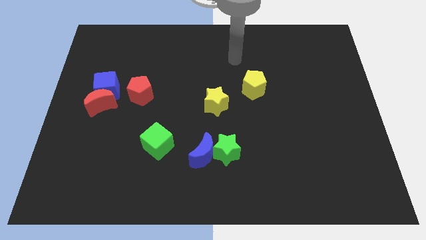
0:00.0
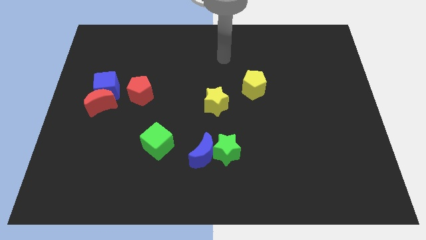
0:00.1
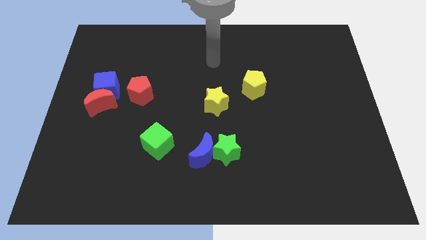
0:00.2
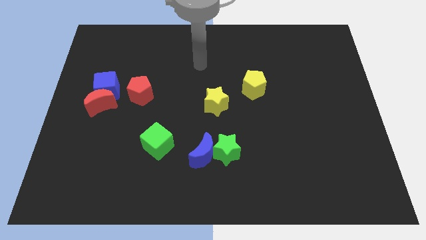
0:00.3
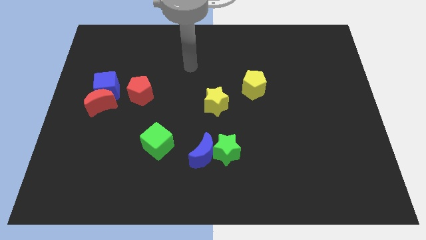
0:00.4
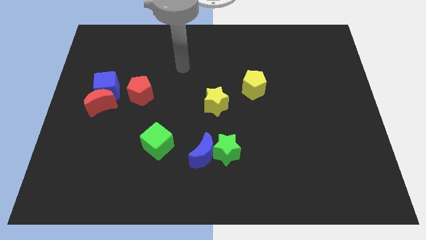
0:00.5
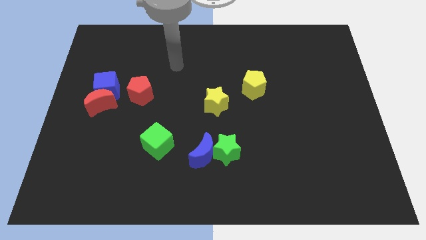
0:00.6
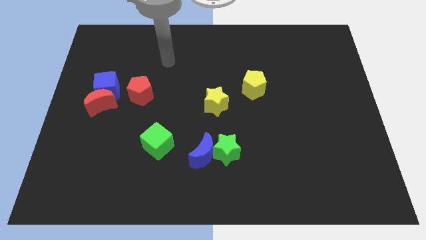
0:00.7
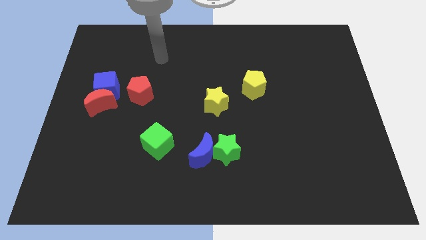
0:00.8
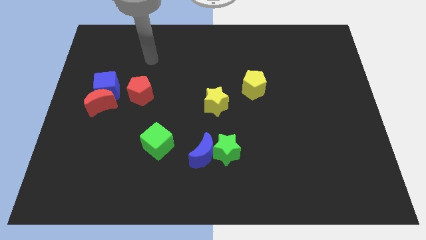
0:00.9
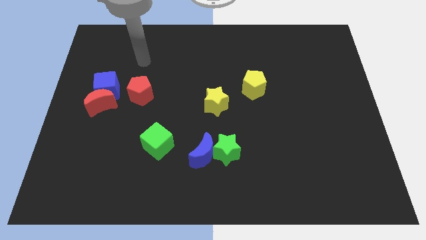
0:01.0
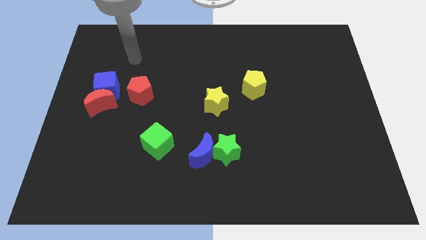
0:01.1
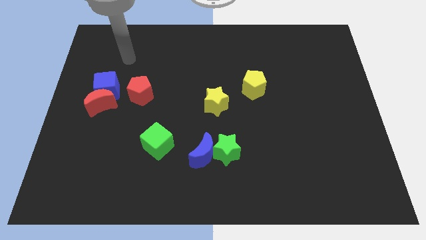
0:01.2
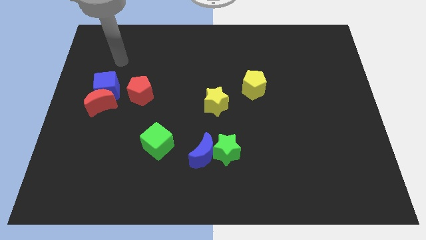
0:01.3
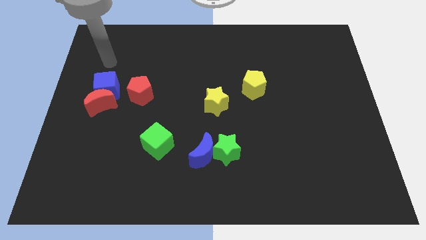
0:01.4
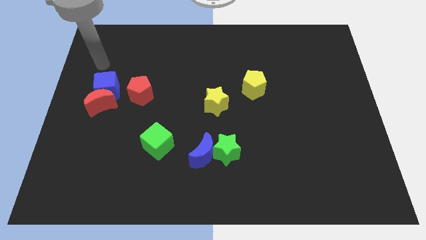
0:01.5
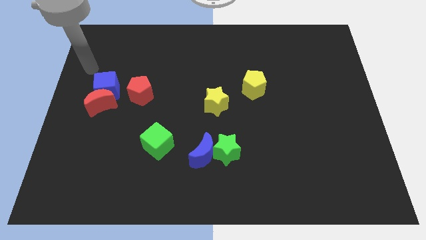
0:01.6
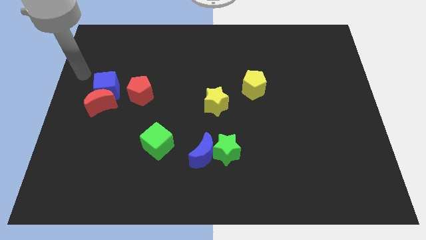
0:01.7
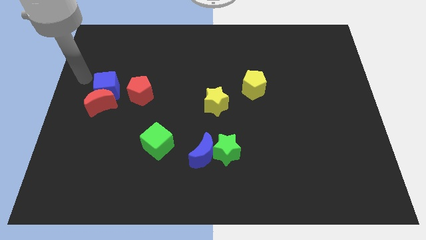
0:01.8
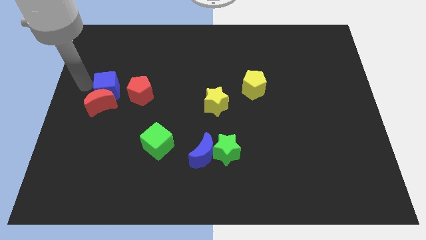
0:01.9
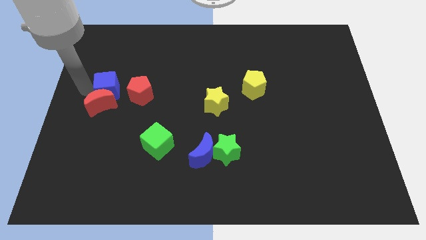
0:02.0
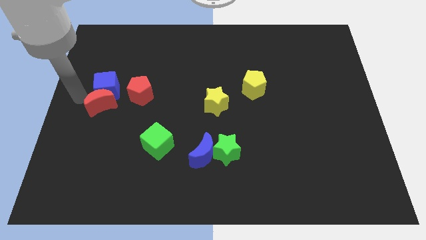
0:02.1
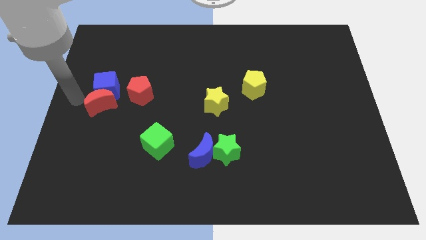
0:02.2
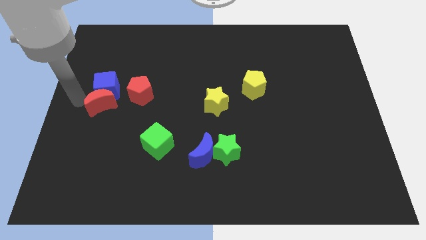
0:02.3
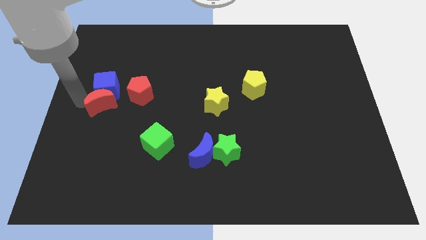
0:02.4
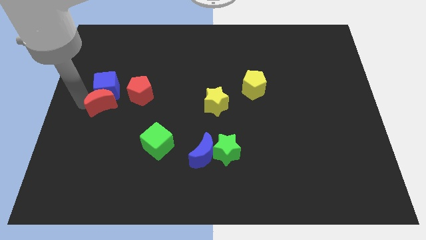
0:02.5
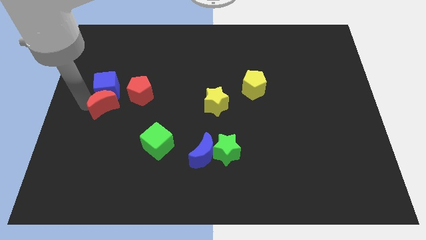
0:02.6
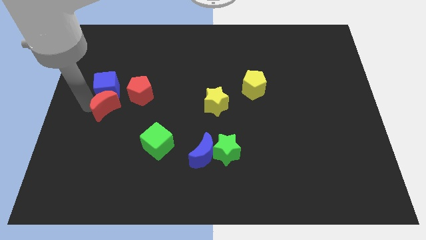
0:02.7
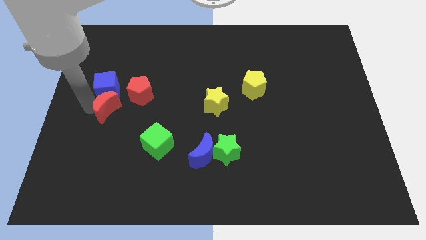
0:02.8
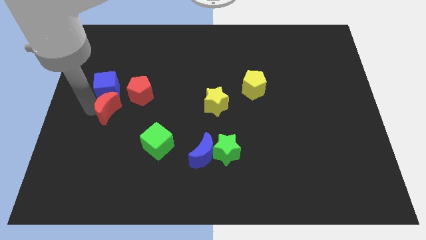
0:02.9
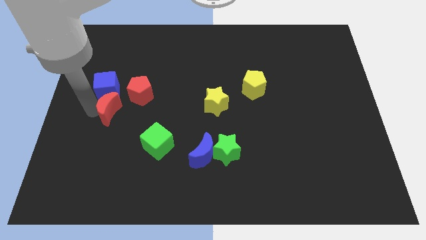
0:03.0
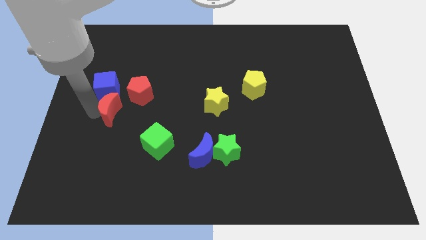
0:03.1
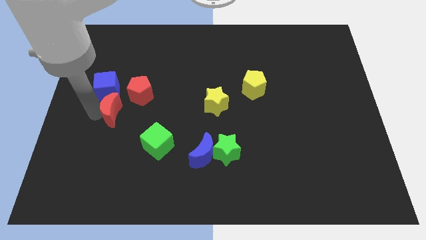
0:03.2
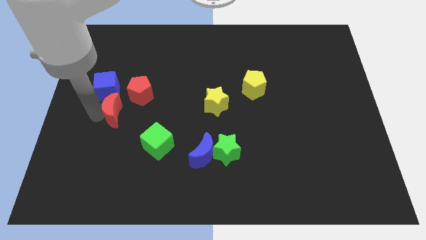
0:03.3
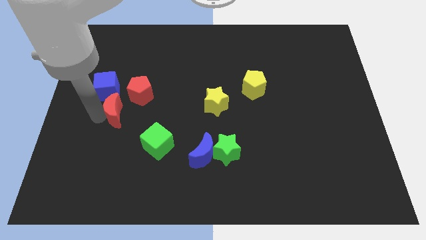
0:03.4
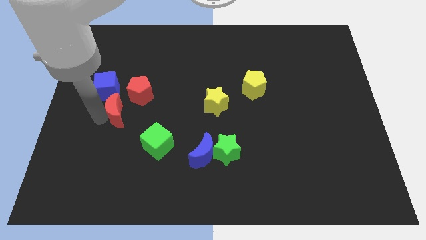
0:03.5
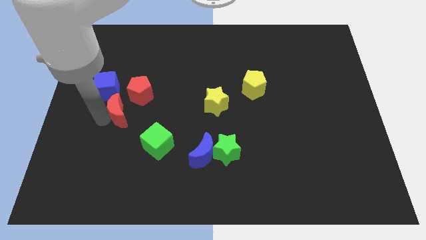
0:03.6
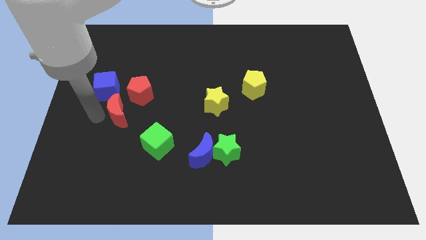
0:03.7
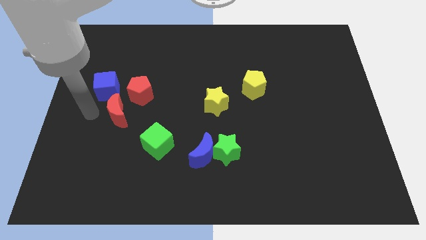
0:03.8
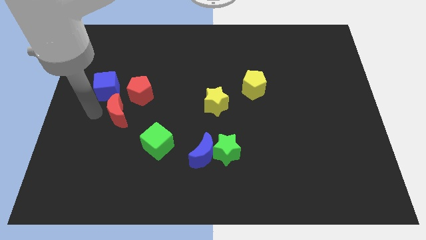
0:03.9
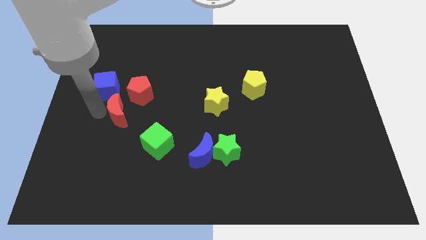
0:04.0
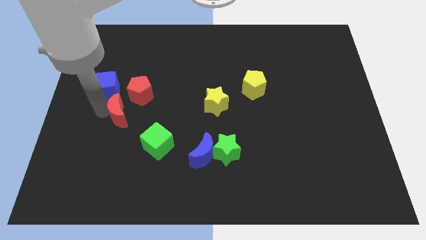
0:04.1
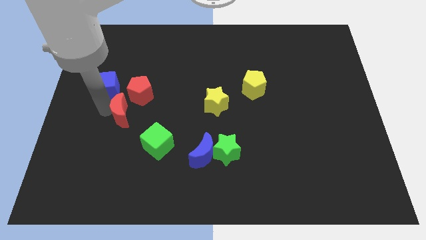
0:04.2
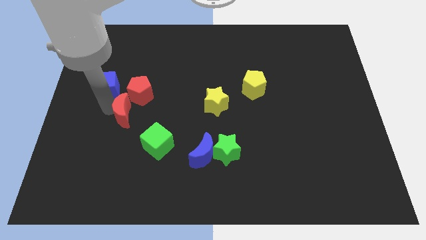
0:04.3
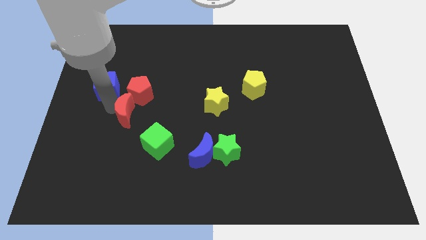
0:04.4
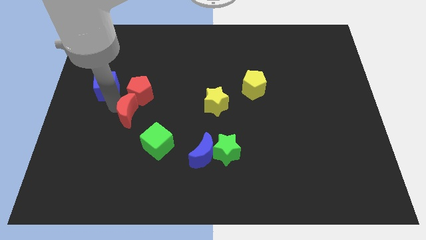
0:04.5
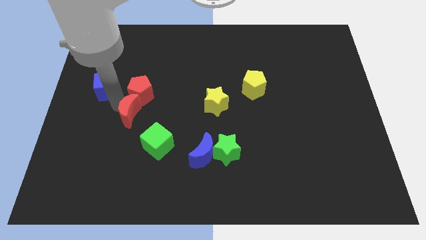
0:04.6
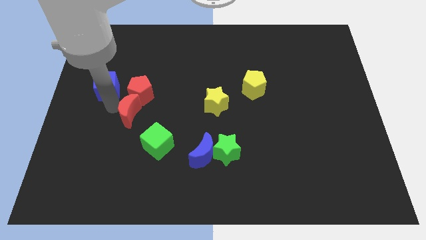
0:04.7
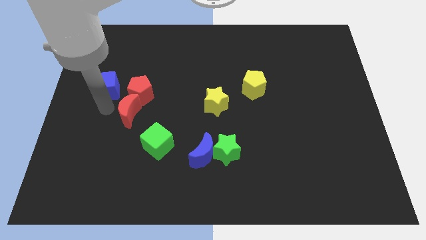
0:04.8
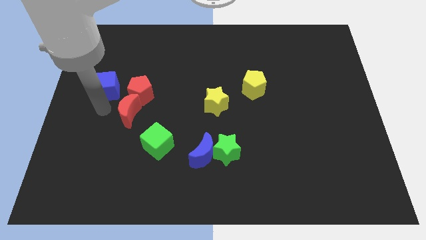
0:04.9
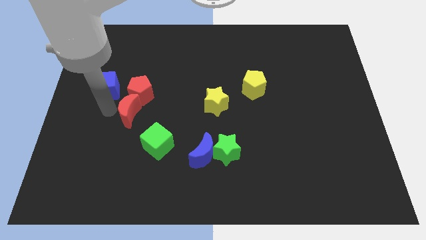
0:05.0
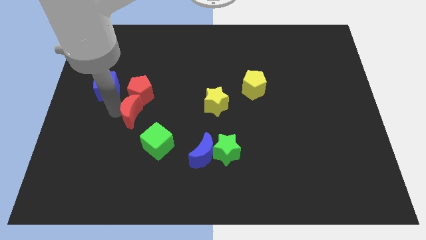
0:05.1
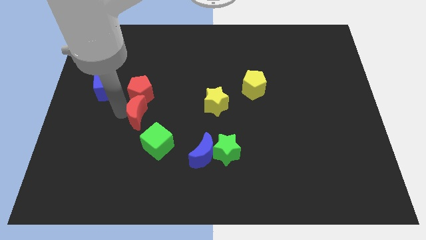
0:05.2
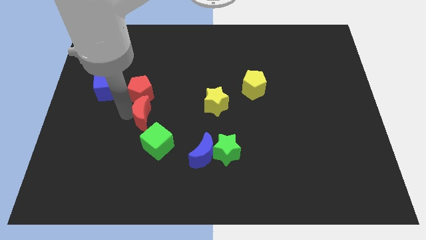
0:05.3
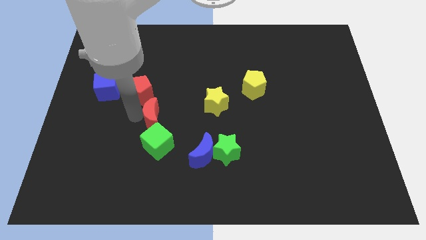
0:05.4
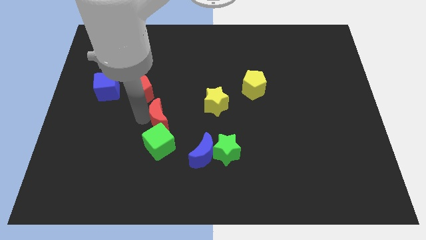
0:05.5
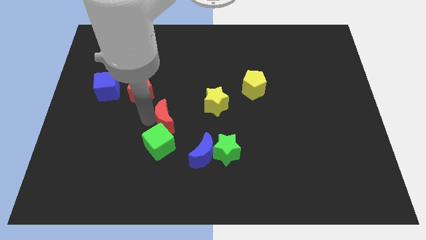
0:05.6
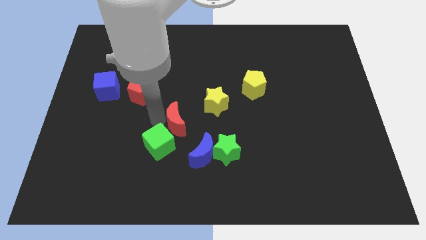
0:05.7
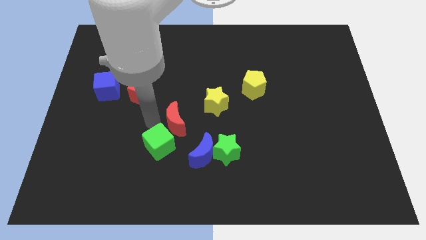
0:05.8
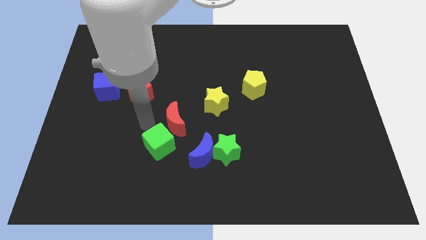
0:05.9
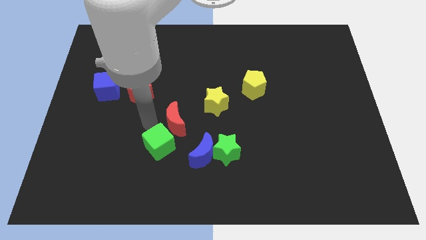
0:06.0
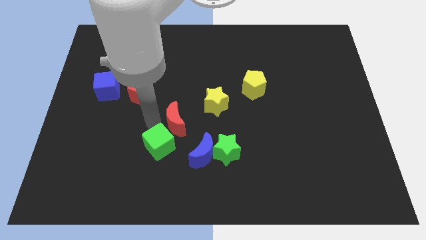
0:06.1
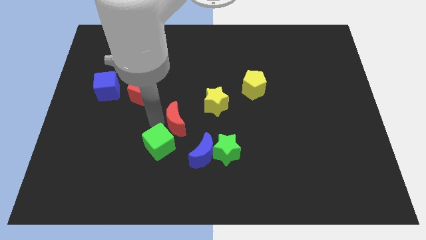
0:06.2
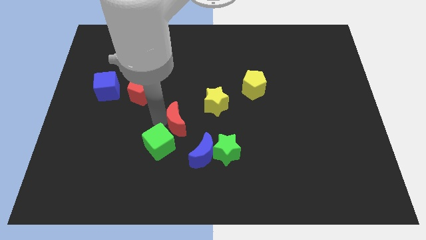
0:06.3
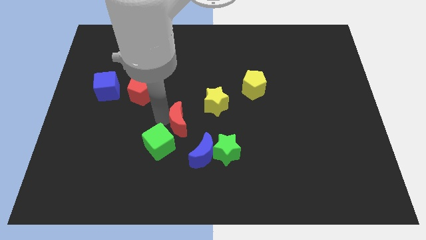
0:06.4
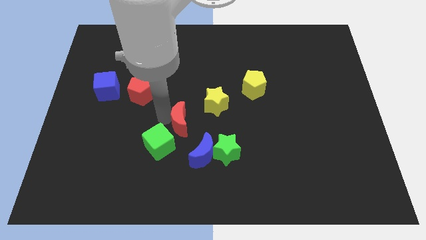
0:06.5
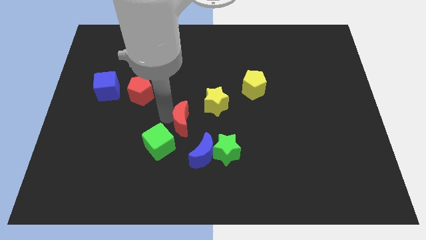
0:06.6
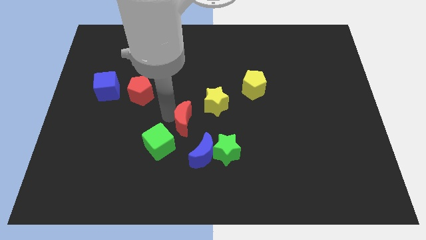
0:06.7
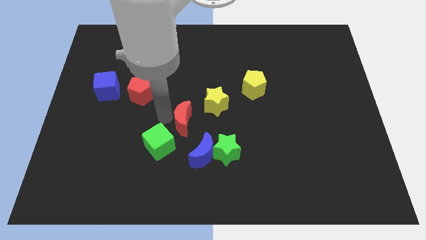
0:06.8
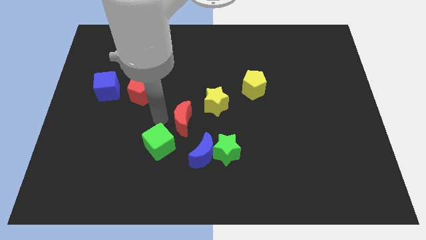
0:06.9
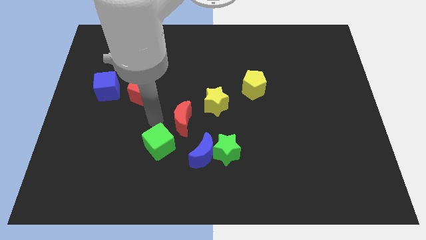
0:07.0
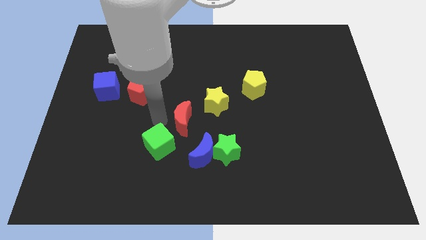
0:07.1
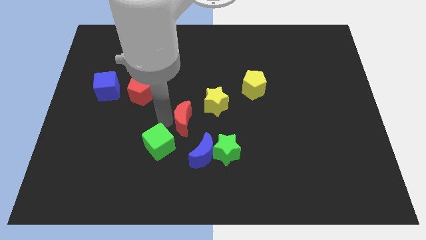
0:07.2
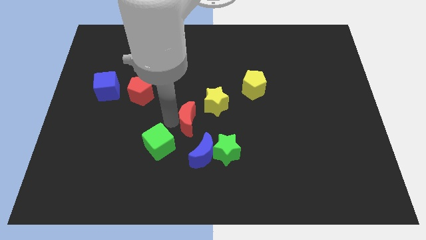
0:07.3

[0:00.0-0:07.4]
push the red moon to the right

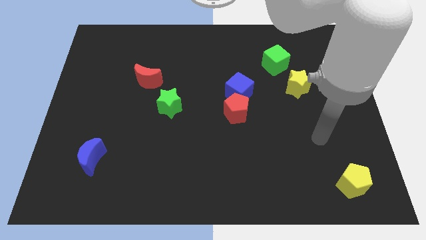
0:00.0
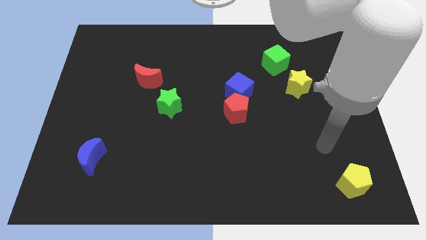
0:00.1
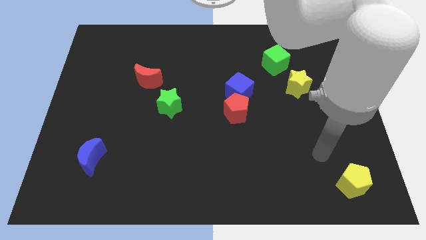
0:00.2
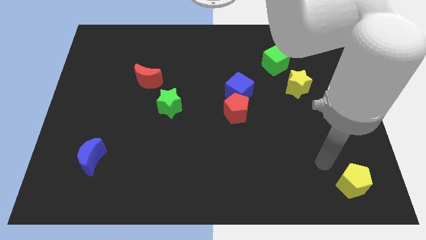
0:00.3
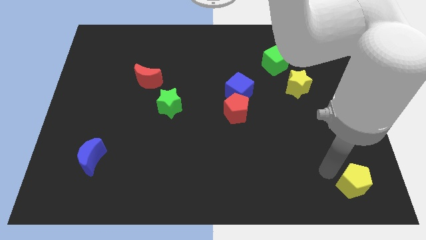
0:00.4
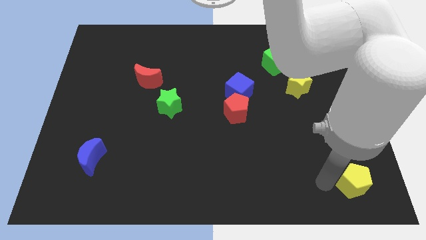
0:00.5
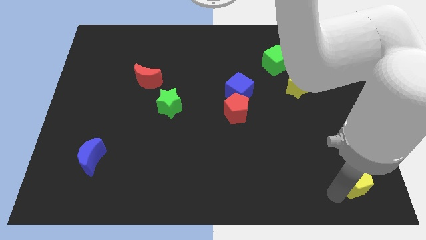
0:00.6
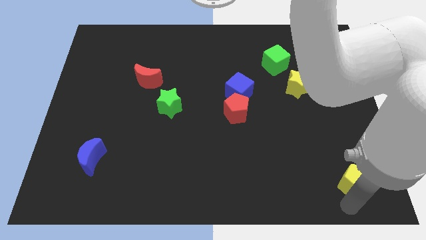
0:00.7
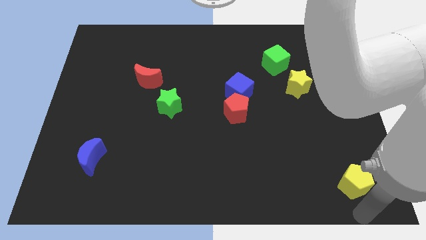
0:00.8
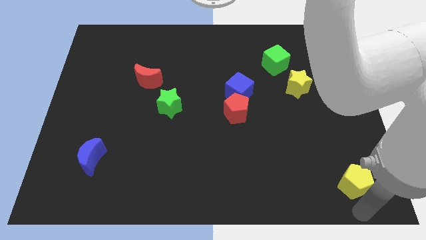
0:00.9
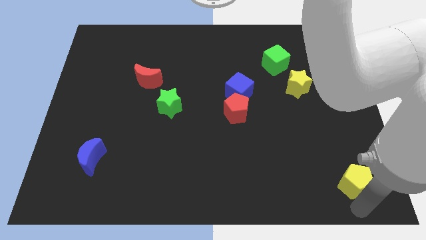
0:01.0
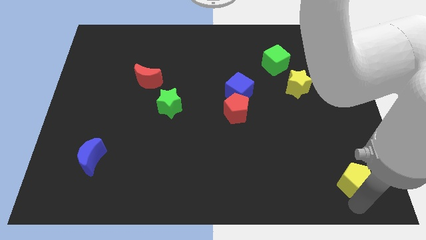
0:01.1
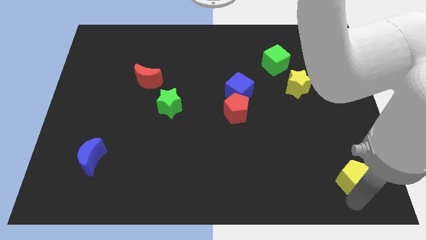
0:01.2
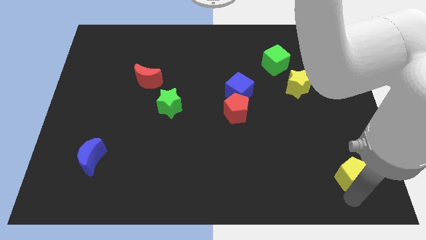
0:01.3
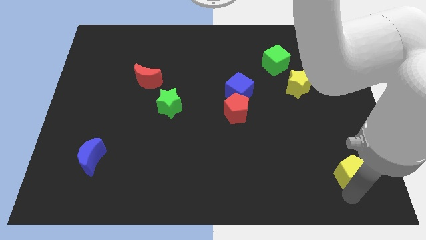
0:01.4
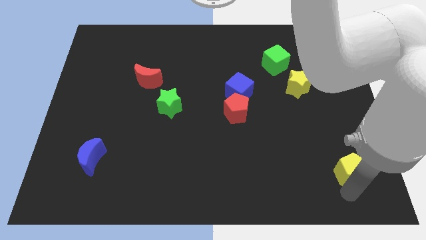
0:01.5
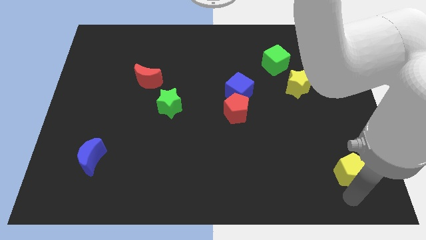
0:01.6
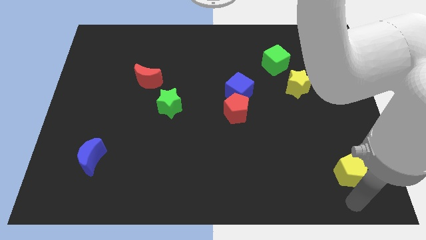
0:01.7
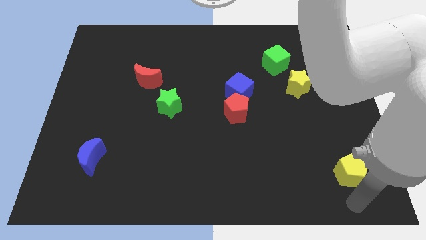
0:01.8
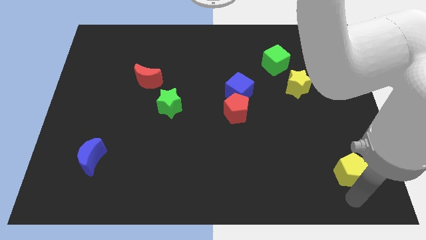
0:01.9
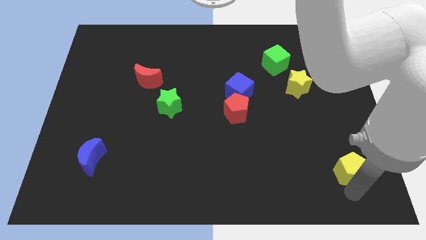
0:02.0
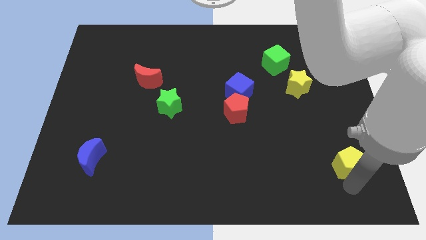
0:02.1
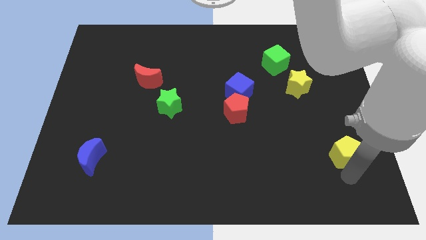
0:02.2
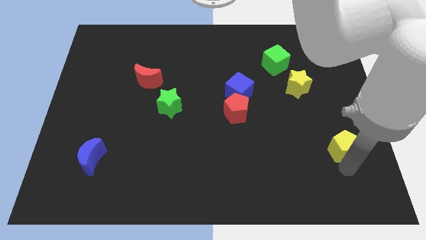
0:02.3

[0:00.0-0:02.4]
push the yellow pentagon up a little
